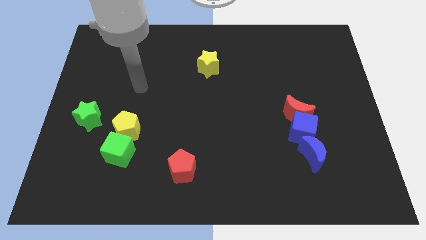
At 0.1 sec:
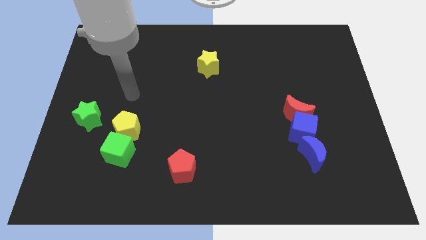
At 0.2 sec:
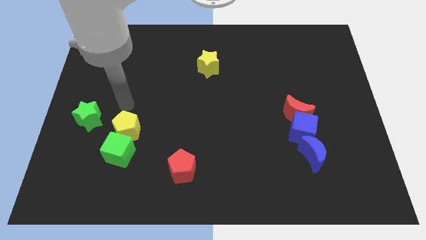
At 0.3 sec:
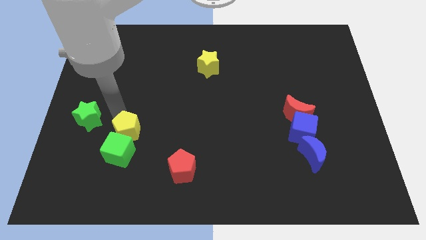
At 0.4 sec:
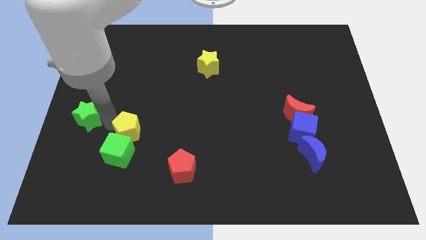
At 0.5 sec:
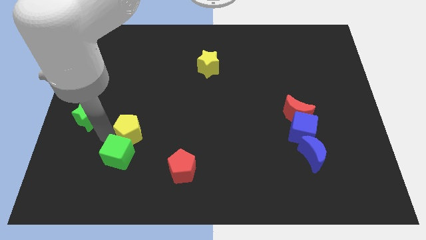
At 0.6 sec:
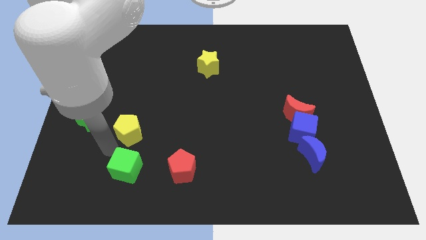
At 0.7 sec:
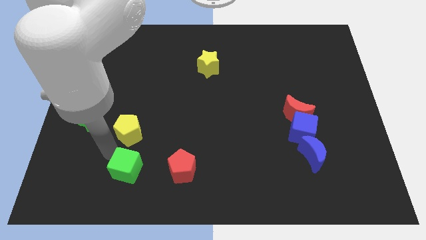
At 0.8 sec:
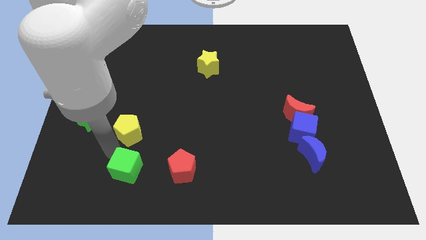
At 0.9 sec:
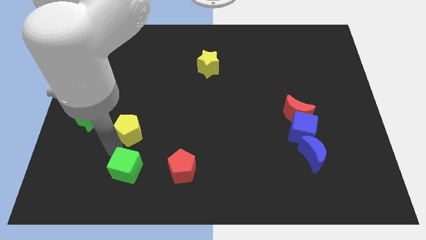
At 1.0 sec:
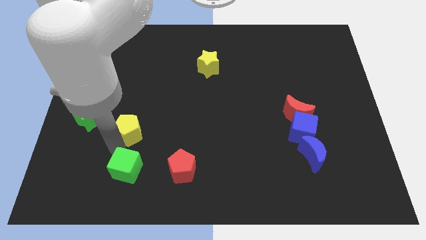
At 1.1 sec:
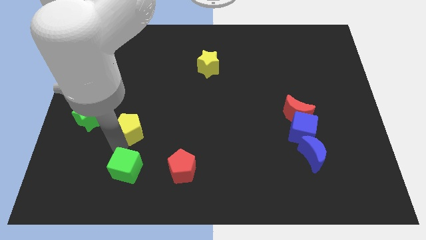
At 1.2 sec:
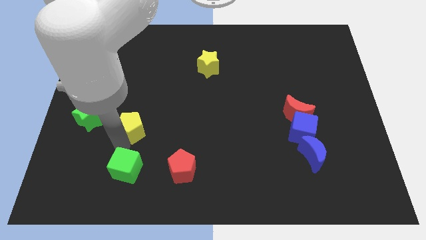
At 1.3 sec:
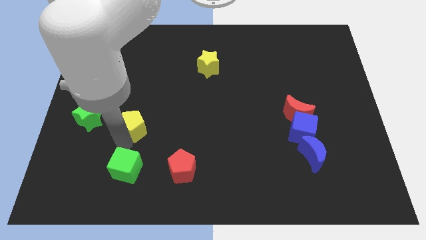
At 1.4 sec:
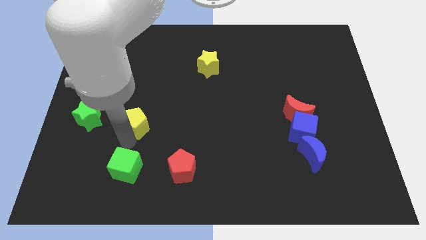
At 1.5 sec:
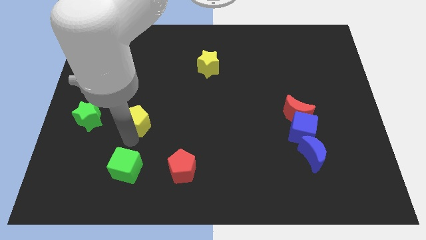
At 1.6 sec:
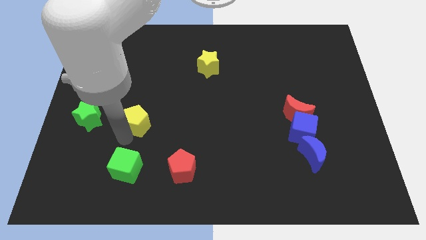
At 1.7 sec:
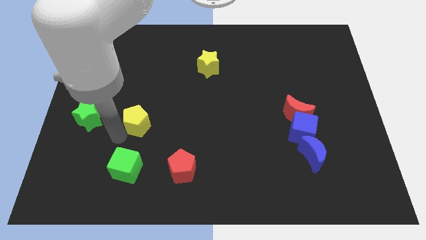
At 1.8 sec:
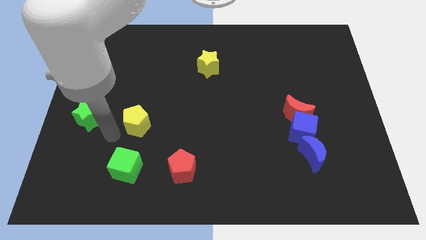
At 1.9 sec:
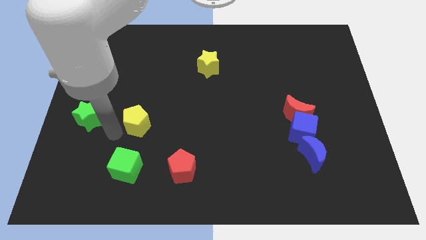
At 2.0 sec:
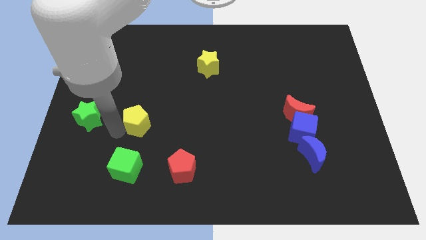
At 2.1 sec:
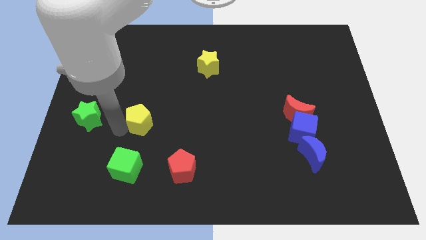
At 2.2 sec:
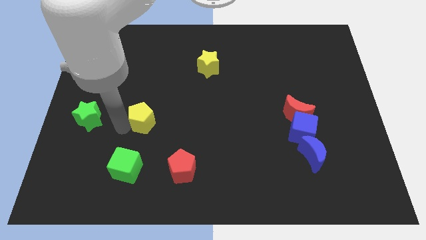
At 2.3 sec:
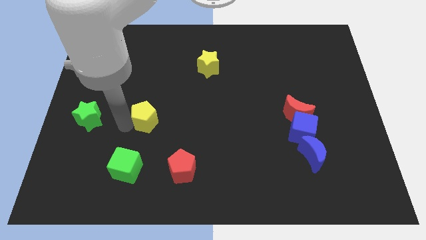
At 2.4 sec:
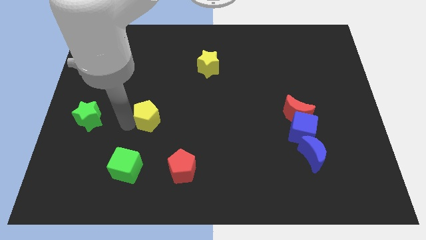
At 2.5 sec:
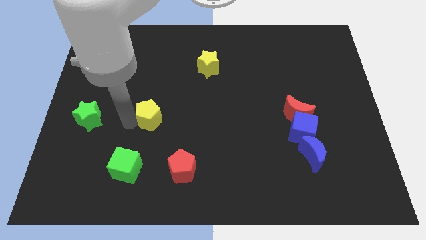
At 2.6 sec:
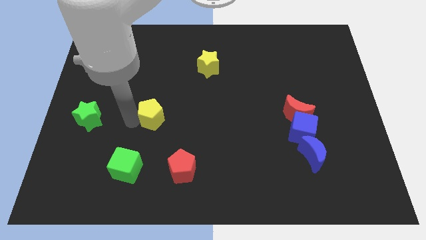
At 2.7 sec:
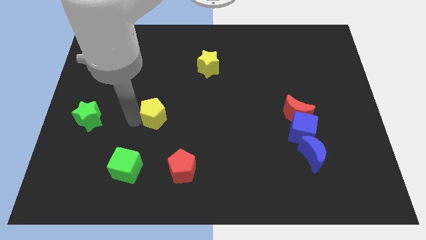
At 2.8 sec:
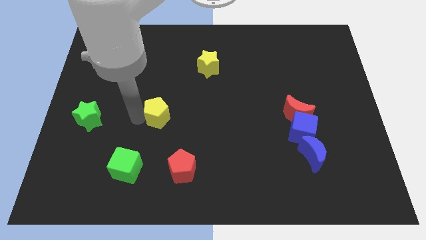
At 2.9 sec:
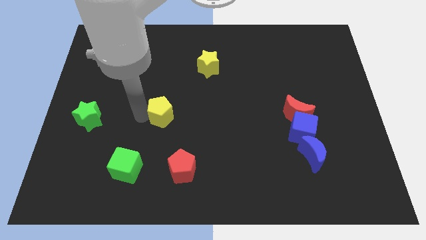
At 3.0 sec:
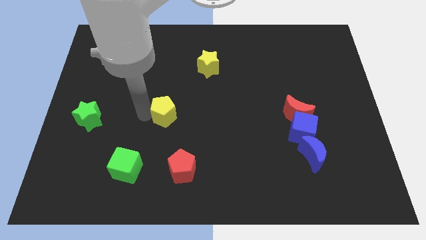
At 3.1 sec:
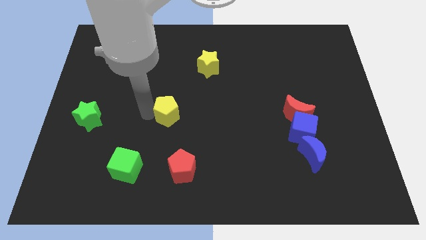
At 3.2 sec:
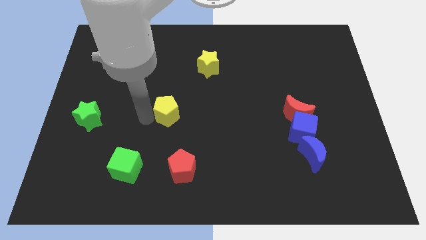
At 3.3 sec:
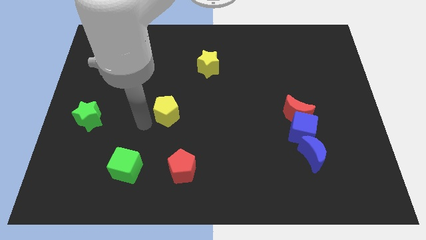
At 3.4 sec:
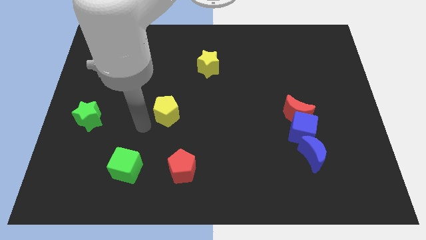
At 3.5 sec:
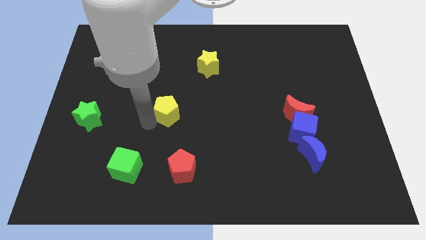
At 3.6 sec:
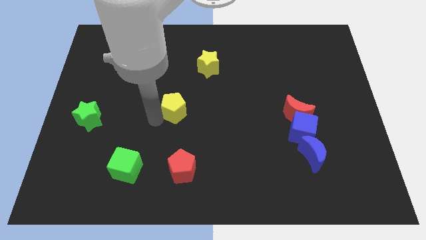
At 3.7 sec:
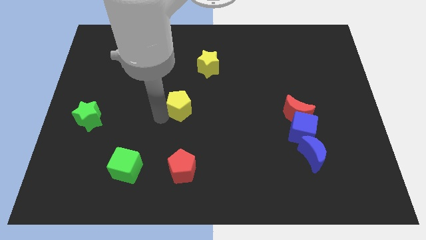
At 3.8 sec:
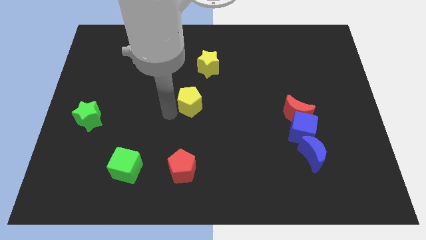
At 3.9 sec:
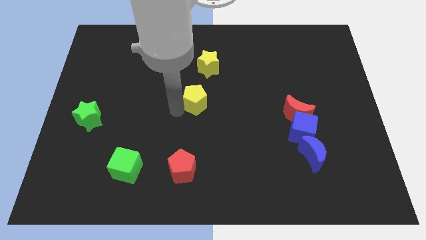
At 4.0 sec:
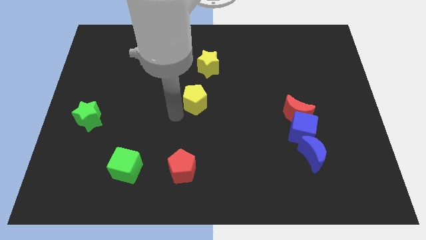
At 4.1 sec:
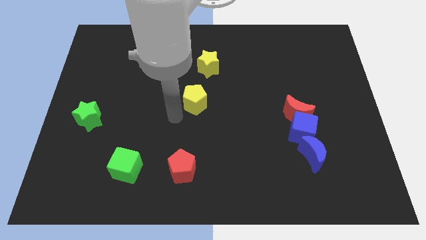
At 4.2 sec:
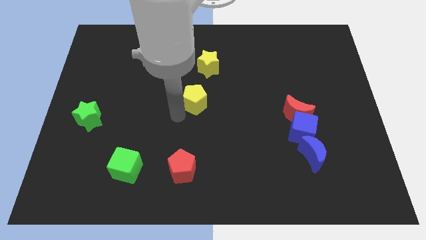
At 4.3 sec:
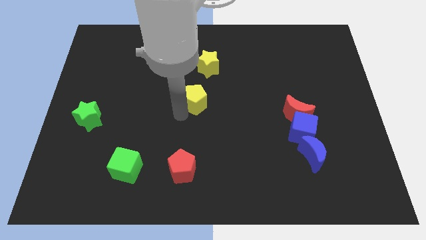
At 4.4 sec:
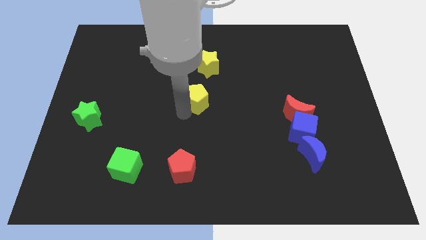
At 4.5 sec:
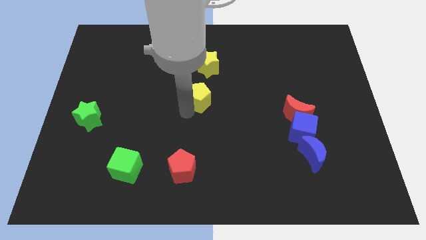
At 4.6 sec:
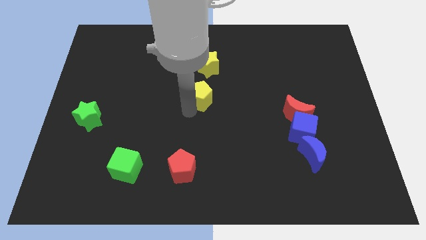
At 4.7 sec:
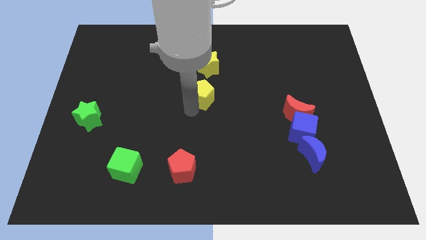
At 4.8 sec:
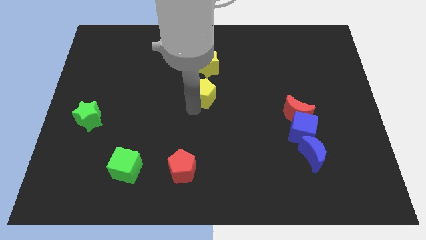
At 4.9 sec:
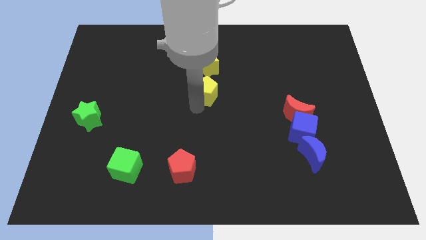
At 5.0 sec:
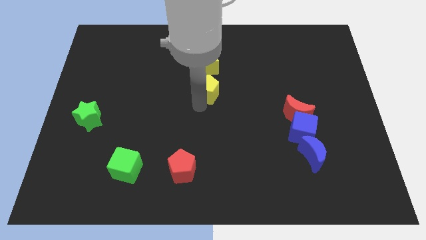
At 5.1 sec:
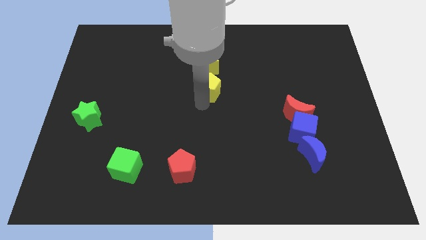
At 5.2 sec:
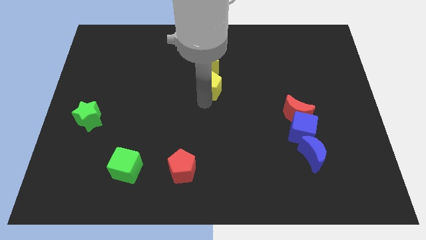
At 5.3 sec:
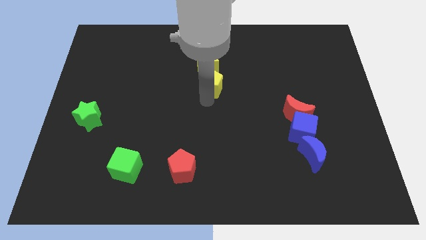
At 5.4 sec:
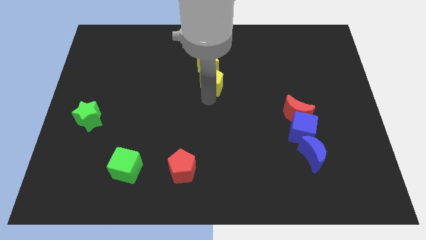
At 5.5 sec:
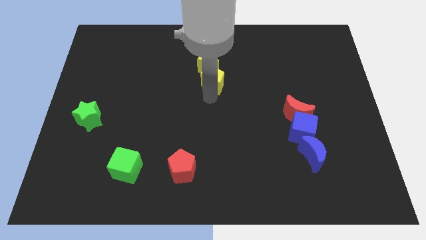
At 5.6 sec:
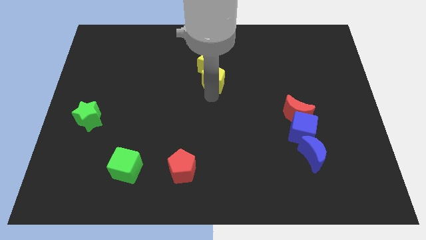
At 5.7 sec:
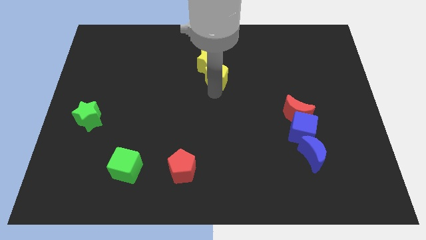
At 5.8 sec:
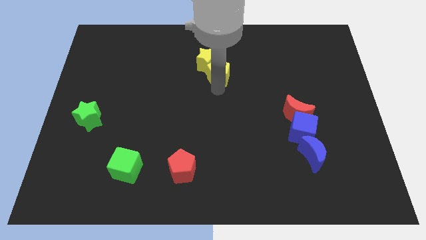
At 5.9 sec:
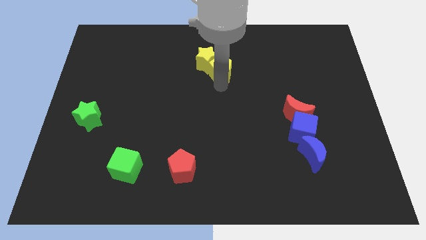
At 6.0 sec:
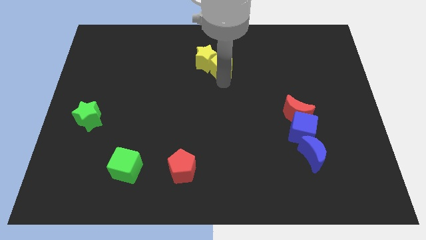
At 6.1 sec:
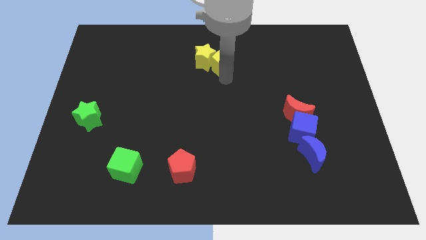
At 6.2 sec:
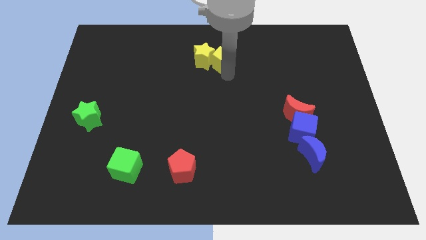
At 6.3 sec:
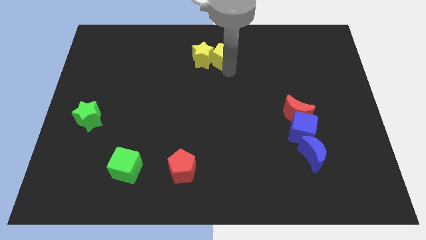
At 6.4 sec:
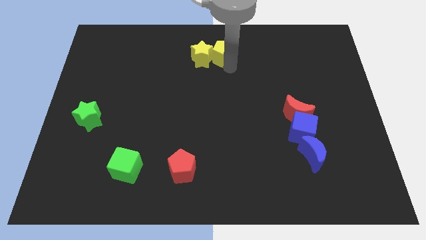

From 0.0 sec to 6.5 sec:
move the yellow pentagon to the top
